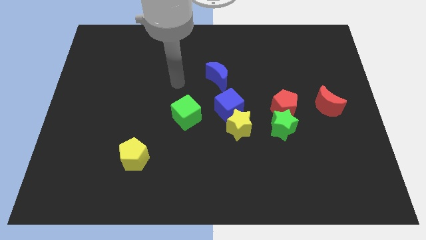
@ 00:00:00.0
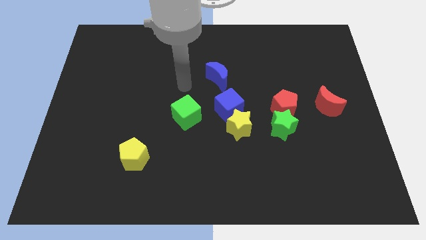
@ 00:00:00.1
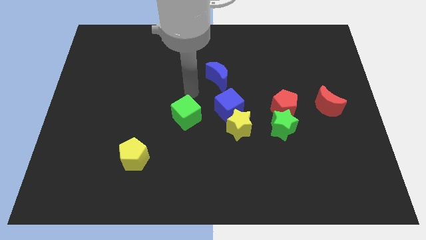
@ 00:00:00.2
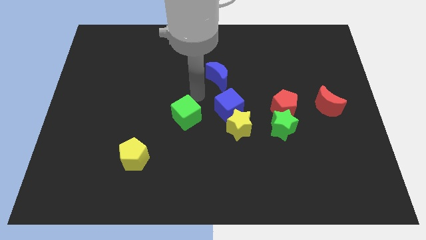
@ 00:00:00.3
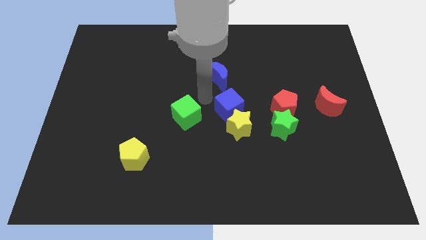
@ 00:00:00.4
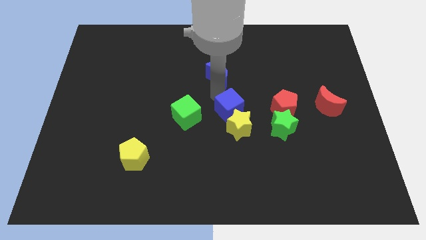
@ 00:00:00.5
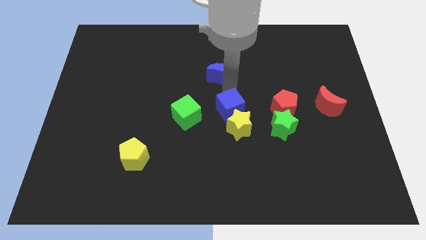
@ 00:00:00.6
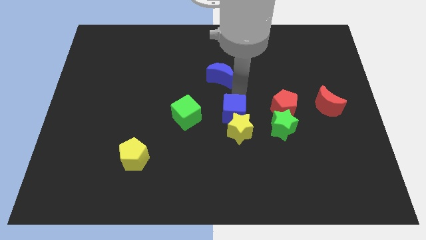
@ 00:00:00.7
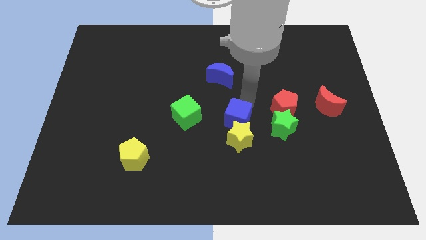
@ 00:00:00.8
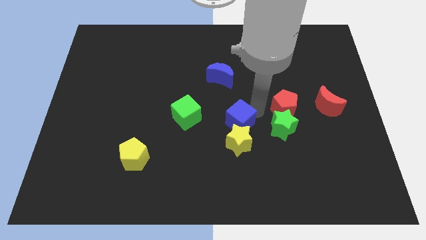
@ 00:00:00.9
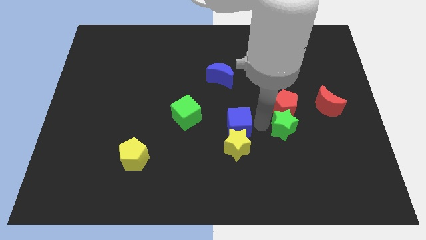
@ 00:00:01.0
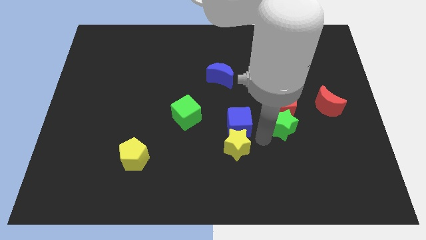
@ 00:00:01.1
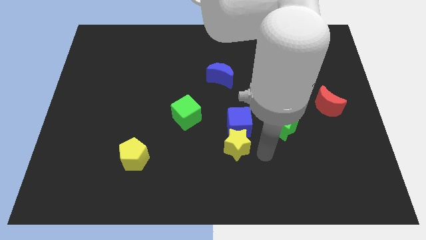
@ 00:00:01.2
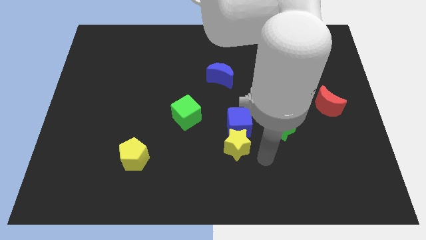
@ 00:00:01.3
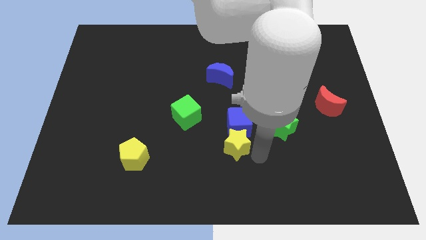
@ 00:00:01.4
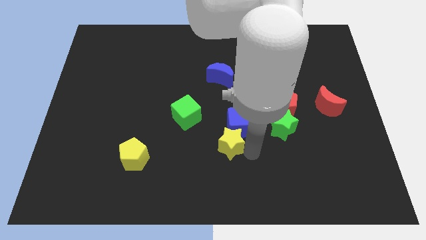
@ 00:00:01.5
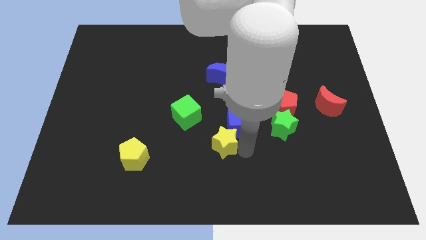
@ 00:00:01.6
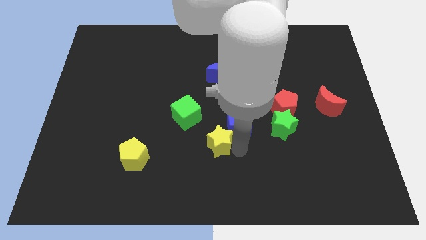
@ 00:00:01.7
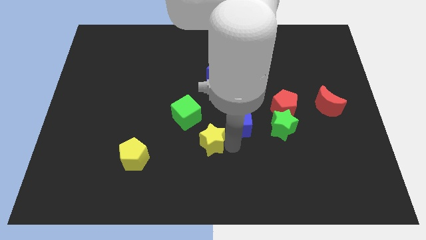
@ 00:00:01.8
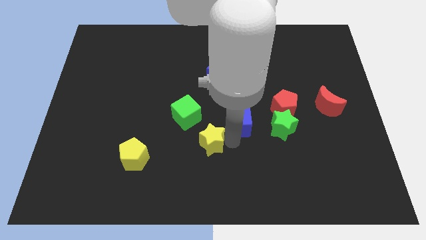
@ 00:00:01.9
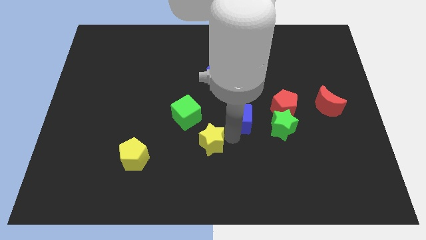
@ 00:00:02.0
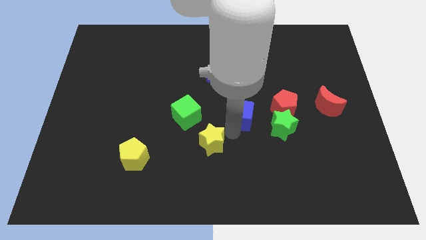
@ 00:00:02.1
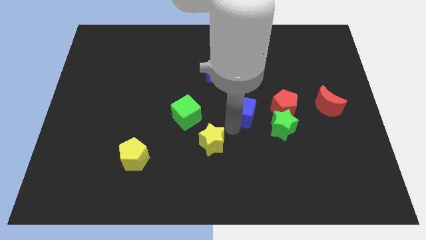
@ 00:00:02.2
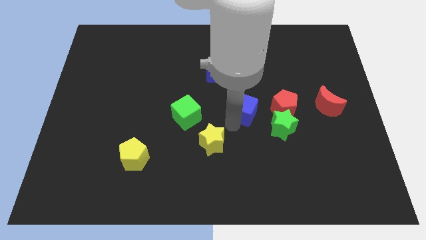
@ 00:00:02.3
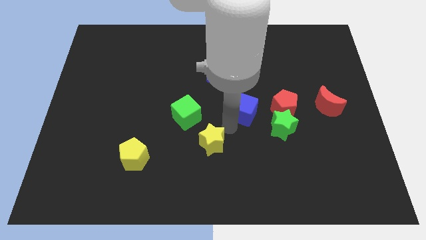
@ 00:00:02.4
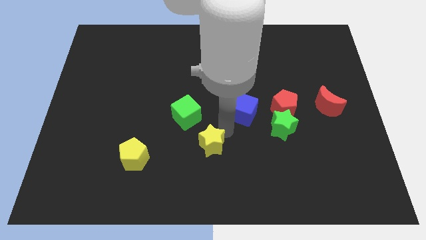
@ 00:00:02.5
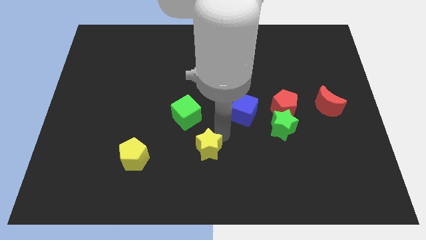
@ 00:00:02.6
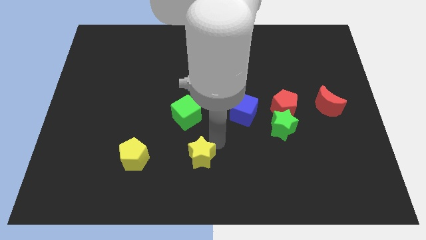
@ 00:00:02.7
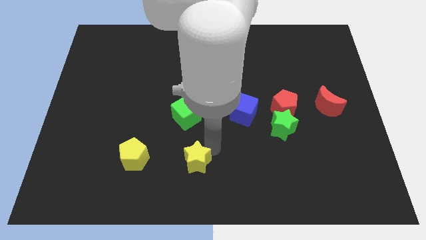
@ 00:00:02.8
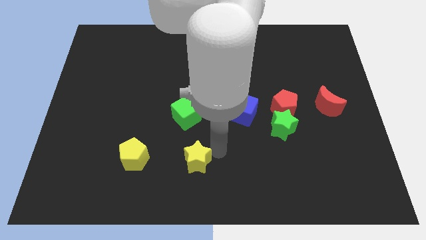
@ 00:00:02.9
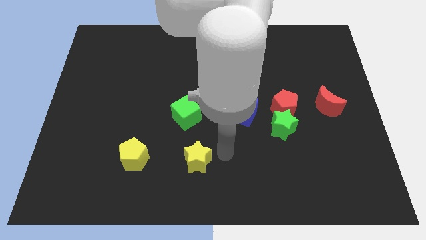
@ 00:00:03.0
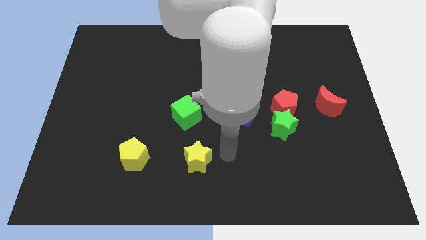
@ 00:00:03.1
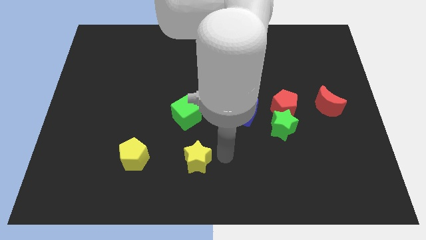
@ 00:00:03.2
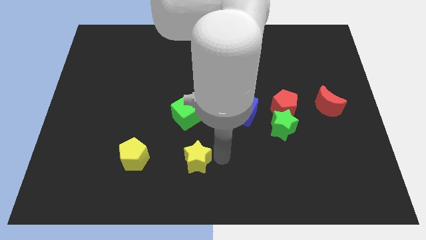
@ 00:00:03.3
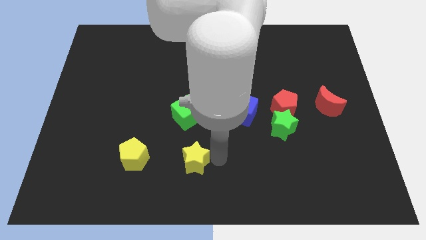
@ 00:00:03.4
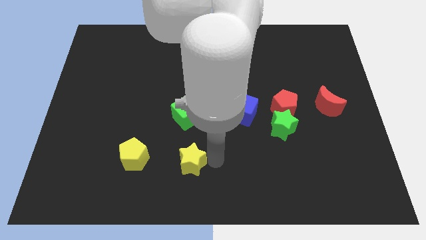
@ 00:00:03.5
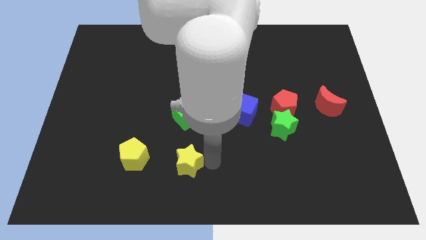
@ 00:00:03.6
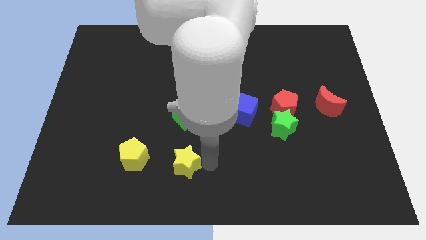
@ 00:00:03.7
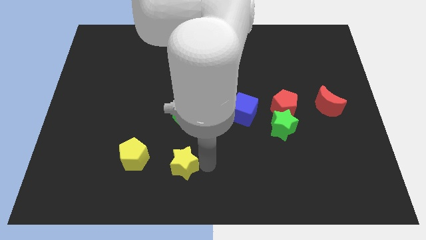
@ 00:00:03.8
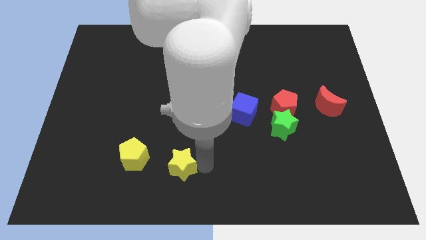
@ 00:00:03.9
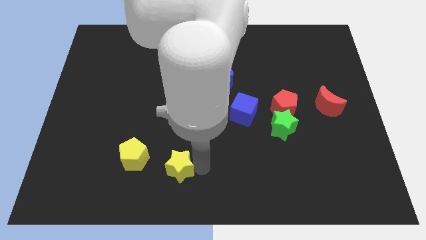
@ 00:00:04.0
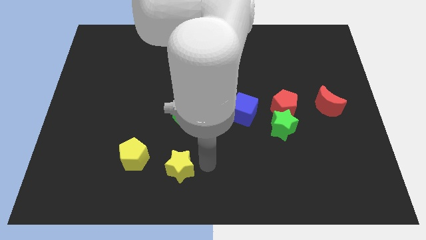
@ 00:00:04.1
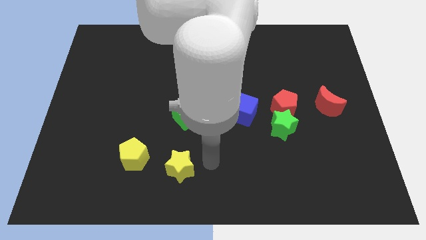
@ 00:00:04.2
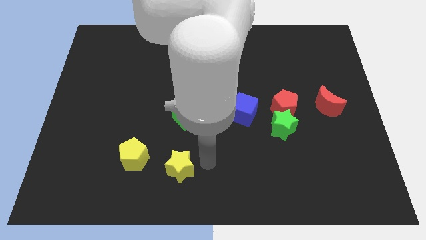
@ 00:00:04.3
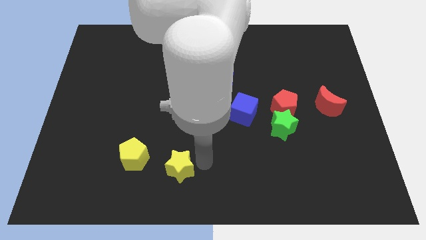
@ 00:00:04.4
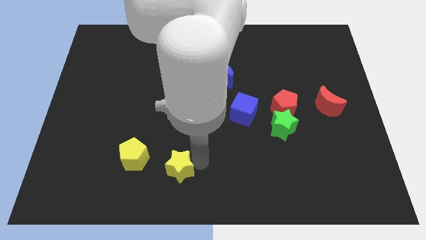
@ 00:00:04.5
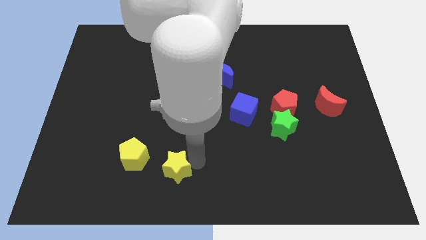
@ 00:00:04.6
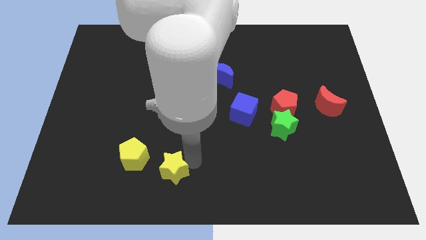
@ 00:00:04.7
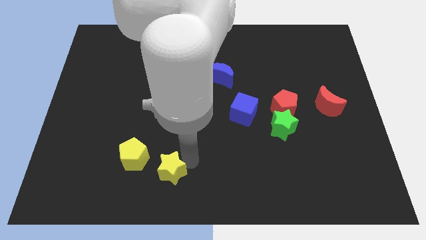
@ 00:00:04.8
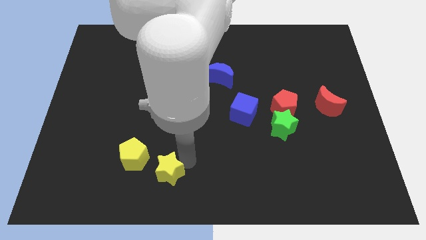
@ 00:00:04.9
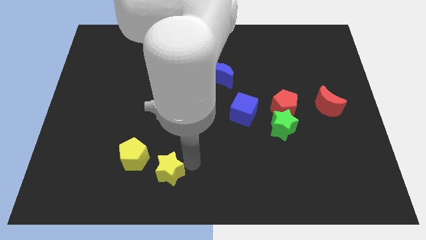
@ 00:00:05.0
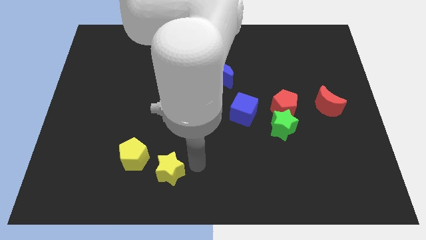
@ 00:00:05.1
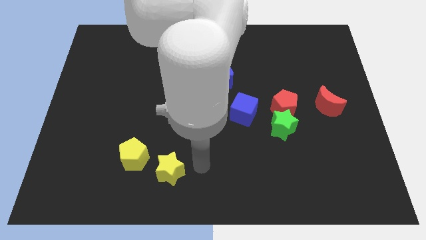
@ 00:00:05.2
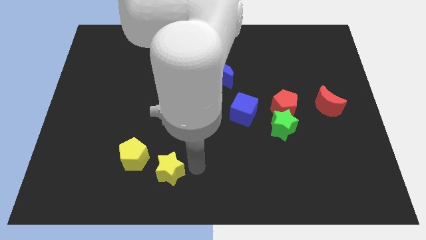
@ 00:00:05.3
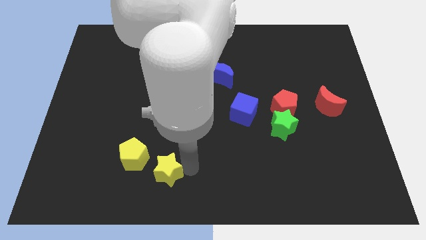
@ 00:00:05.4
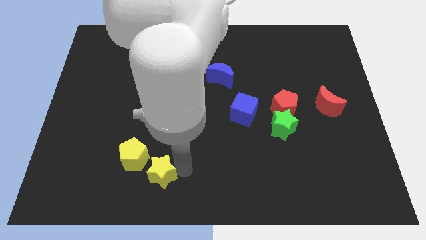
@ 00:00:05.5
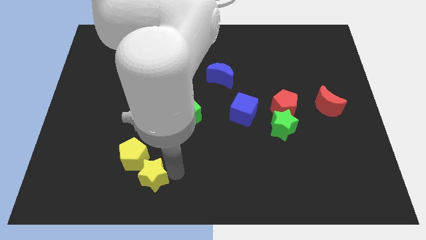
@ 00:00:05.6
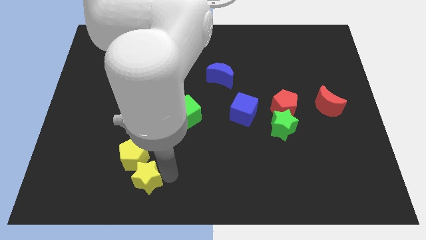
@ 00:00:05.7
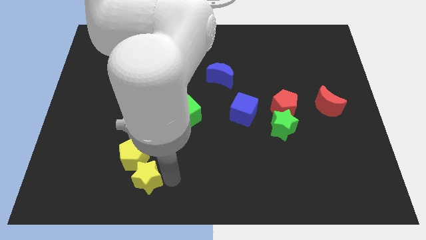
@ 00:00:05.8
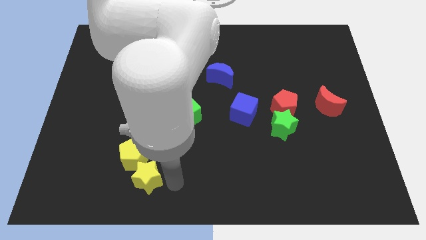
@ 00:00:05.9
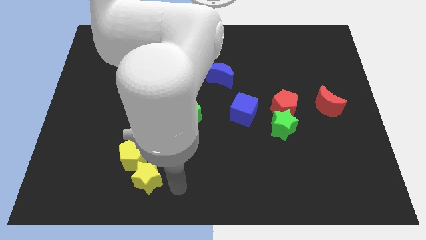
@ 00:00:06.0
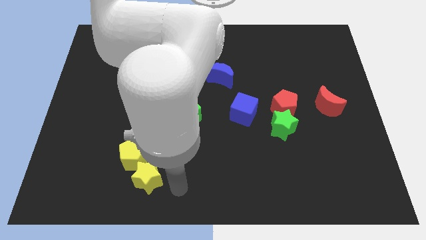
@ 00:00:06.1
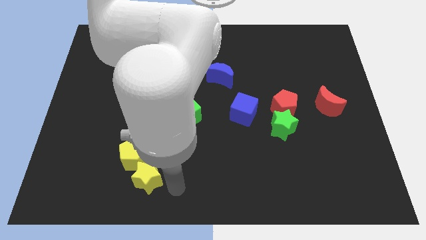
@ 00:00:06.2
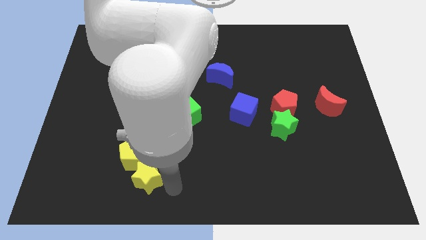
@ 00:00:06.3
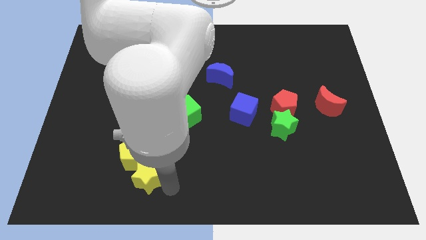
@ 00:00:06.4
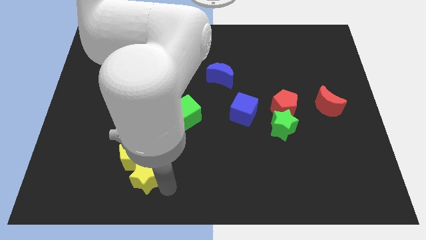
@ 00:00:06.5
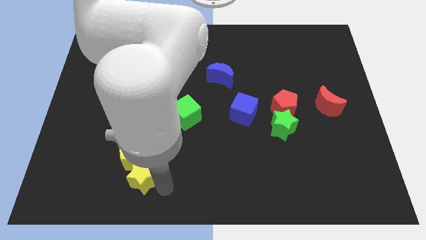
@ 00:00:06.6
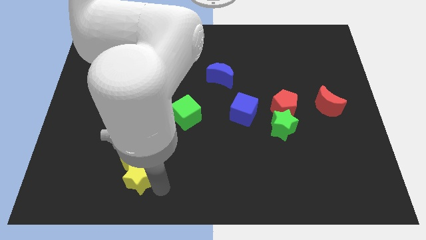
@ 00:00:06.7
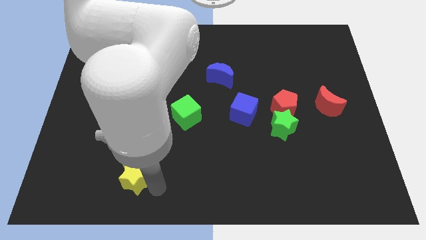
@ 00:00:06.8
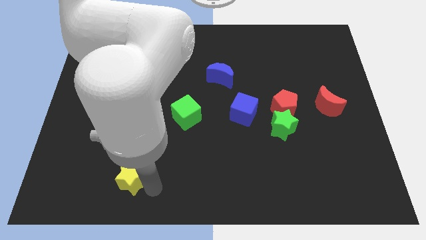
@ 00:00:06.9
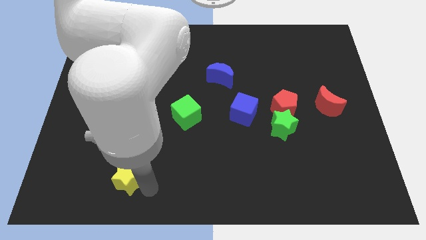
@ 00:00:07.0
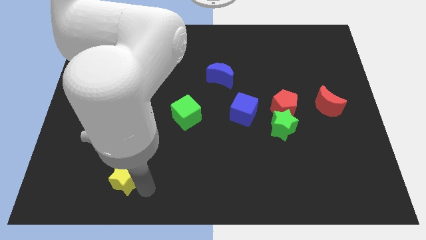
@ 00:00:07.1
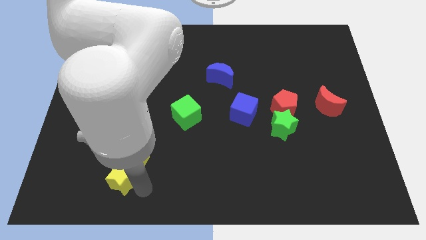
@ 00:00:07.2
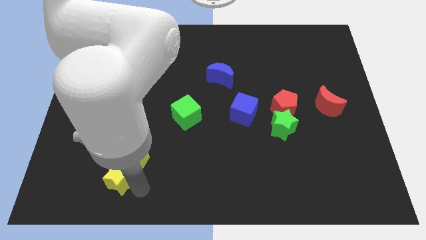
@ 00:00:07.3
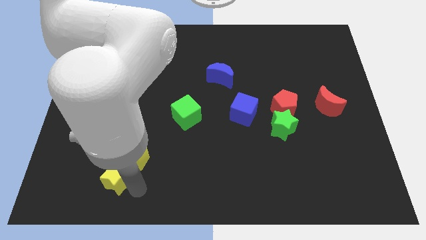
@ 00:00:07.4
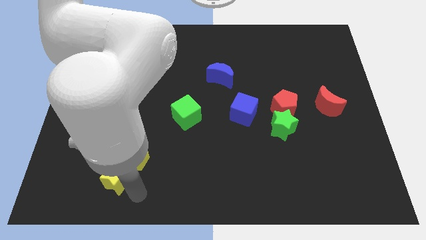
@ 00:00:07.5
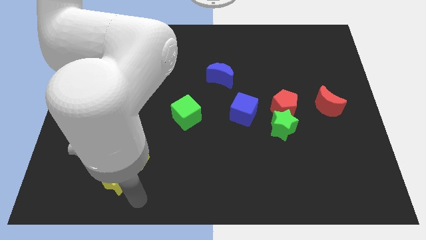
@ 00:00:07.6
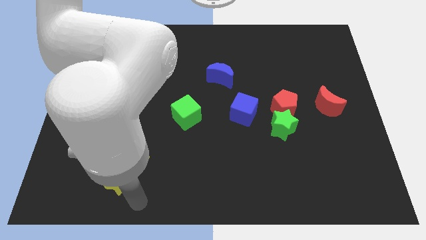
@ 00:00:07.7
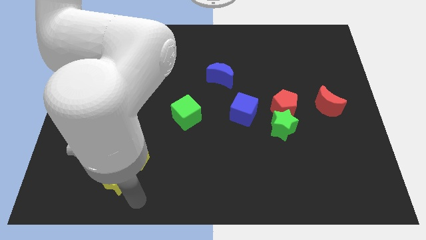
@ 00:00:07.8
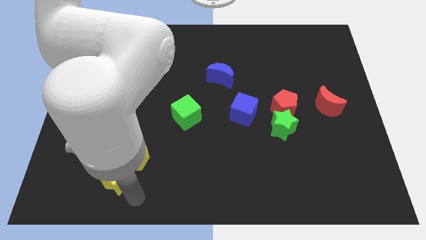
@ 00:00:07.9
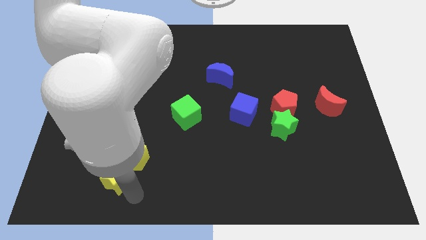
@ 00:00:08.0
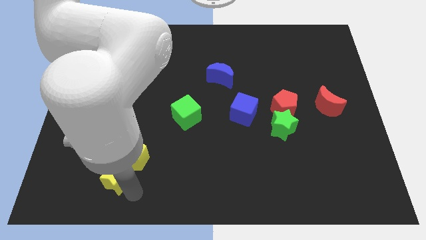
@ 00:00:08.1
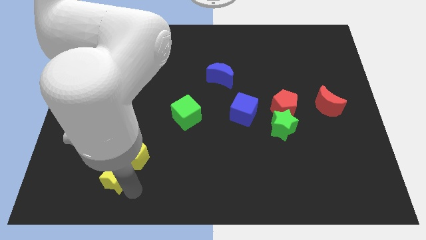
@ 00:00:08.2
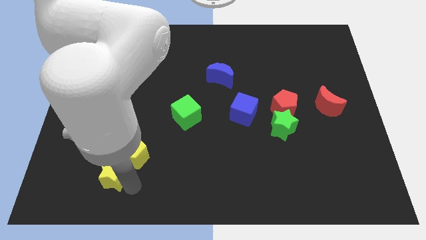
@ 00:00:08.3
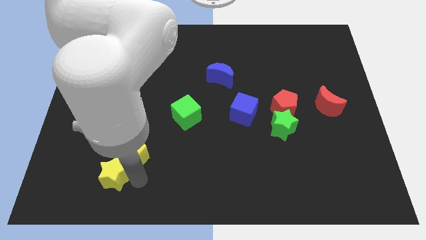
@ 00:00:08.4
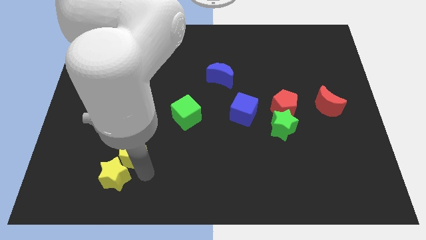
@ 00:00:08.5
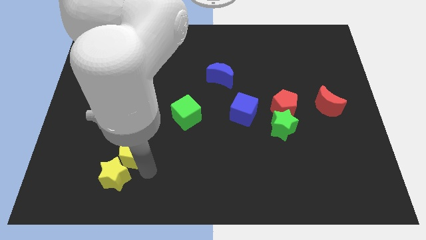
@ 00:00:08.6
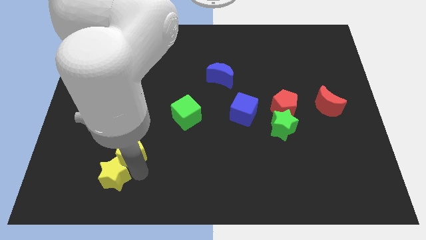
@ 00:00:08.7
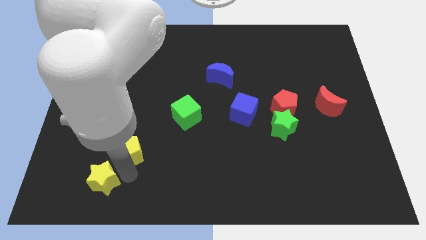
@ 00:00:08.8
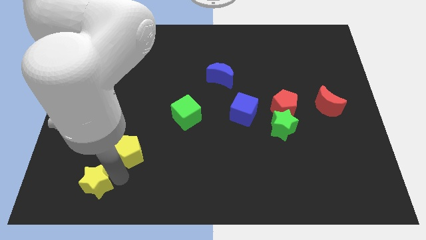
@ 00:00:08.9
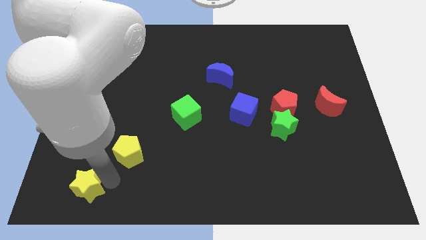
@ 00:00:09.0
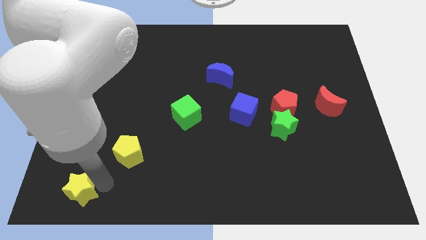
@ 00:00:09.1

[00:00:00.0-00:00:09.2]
move the yellow star to the lower left corner
